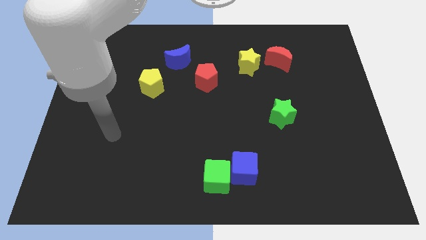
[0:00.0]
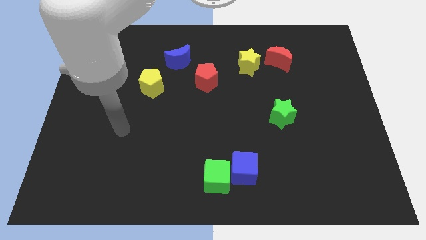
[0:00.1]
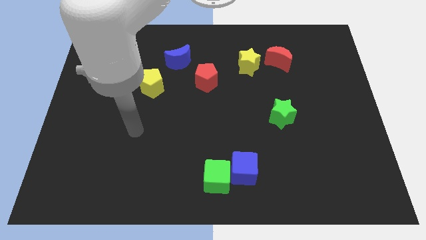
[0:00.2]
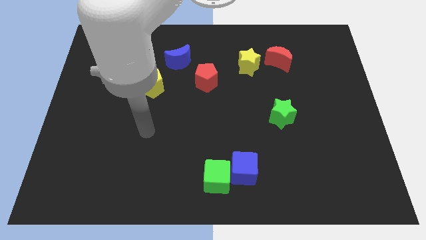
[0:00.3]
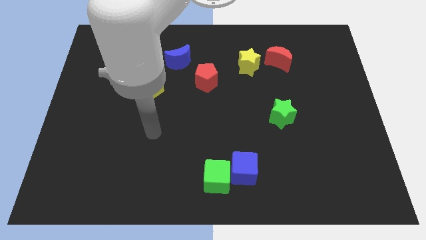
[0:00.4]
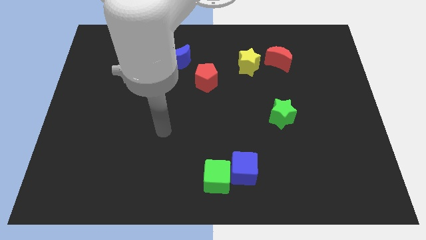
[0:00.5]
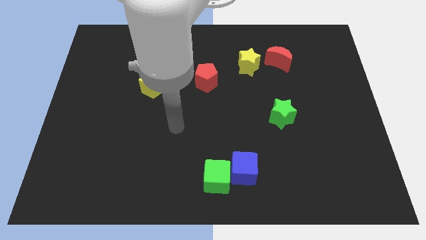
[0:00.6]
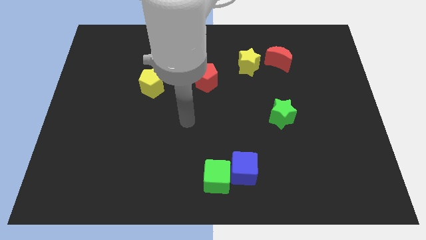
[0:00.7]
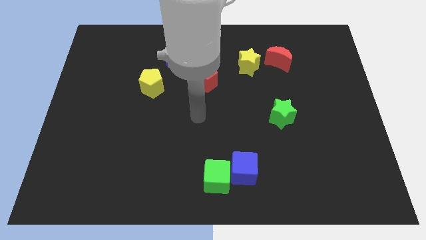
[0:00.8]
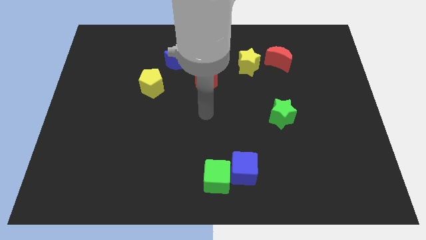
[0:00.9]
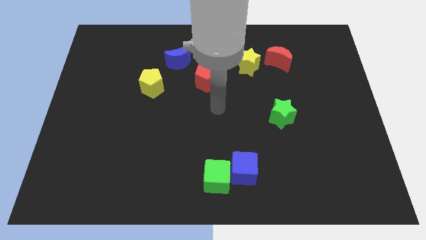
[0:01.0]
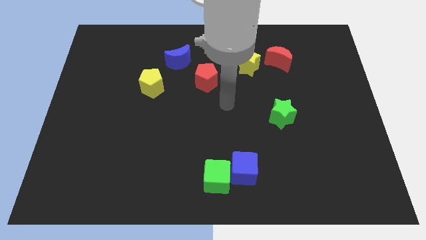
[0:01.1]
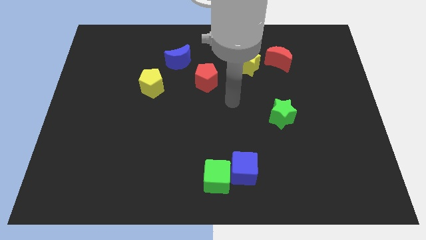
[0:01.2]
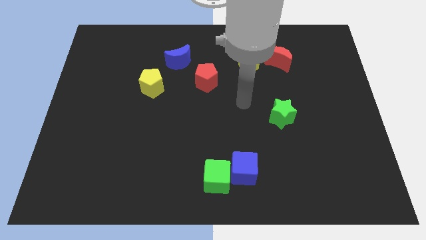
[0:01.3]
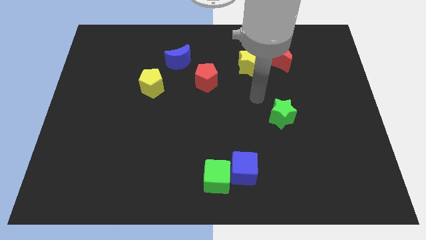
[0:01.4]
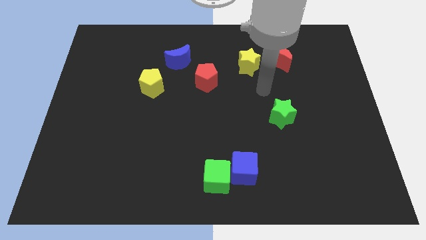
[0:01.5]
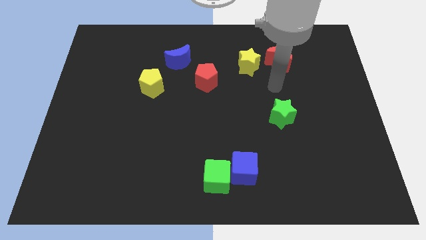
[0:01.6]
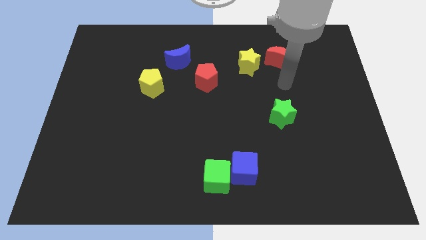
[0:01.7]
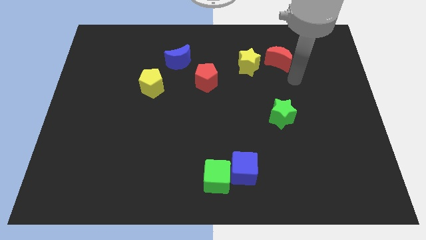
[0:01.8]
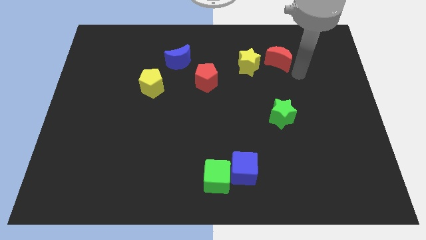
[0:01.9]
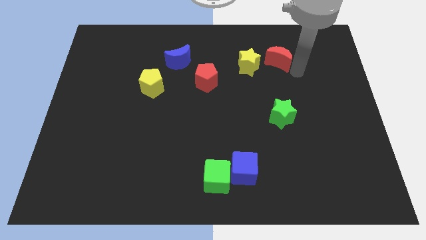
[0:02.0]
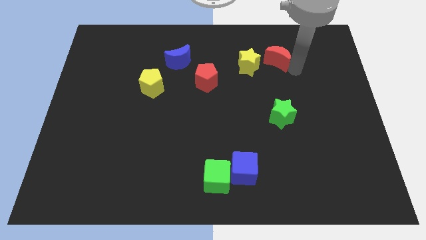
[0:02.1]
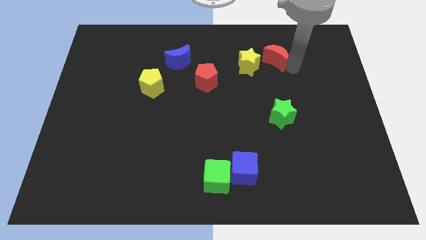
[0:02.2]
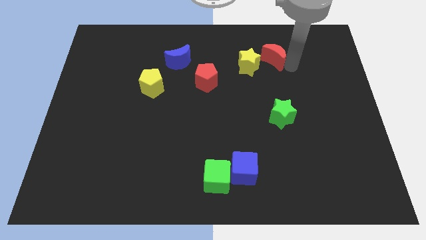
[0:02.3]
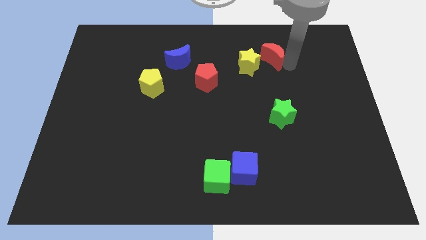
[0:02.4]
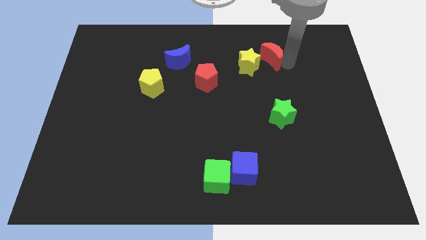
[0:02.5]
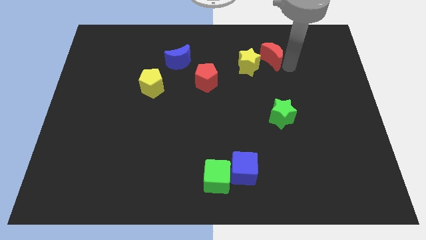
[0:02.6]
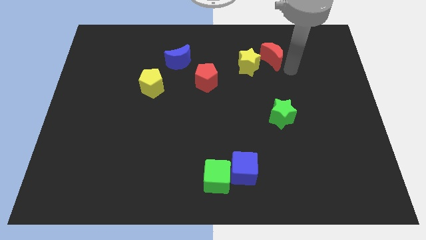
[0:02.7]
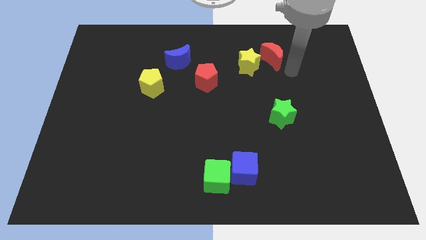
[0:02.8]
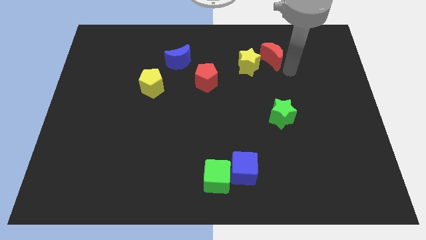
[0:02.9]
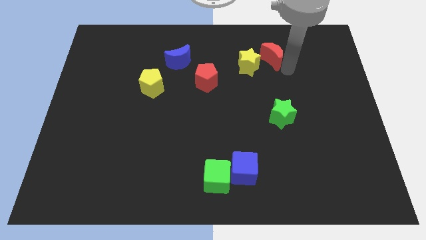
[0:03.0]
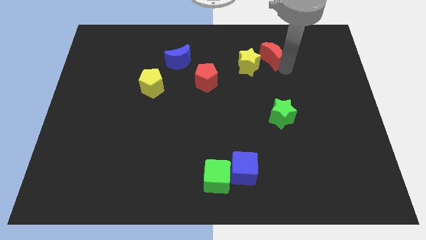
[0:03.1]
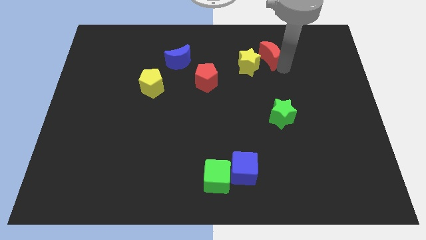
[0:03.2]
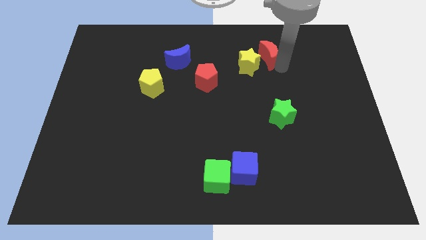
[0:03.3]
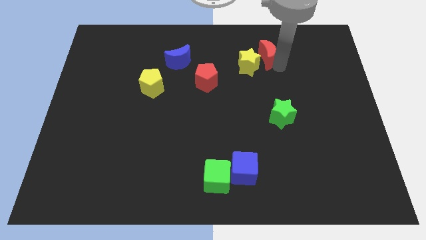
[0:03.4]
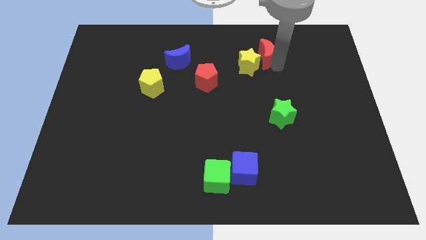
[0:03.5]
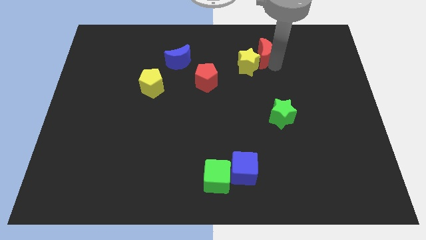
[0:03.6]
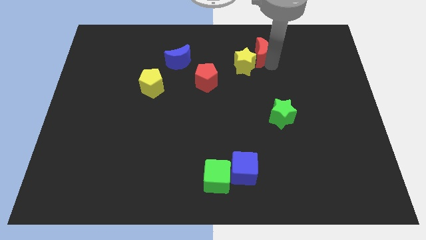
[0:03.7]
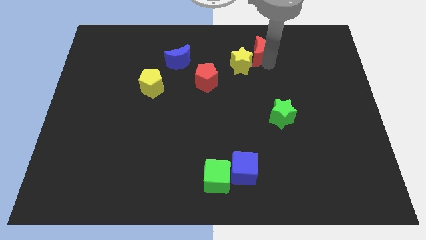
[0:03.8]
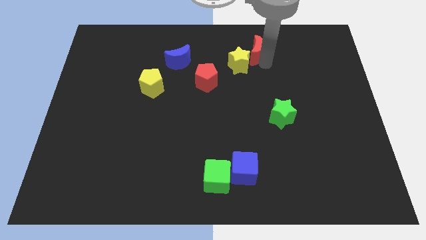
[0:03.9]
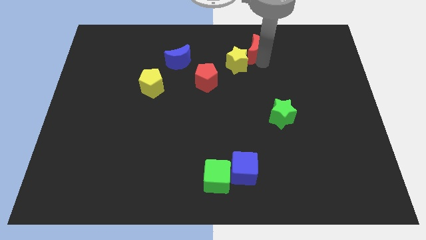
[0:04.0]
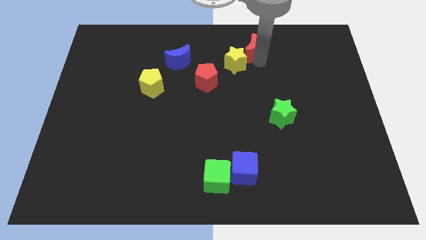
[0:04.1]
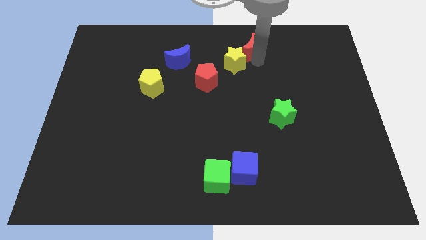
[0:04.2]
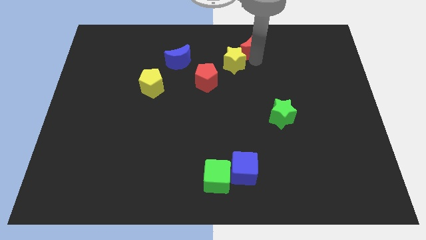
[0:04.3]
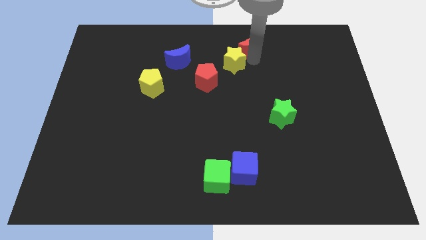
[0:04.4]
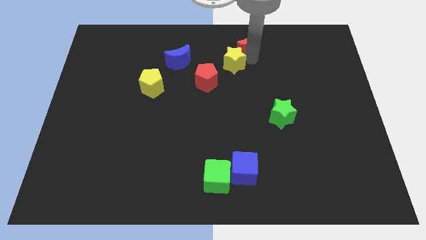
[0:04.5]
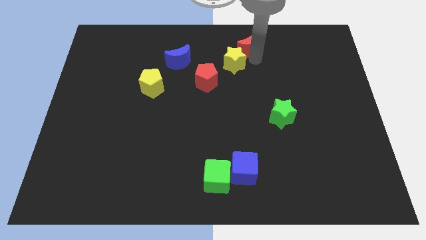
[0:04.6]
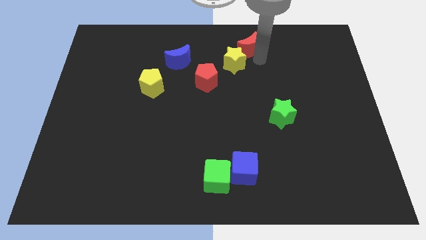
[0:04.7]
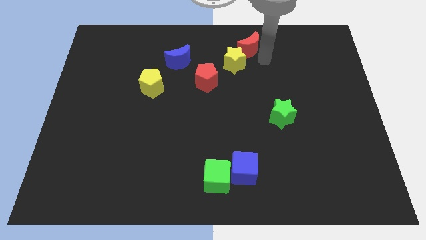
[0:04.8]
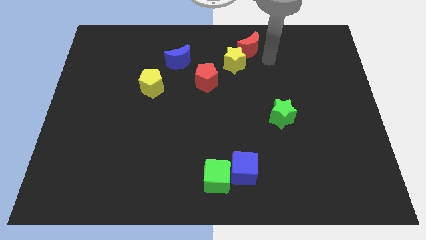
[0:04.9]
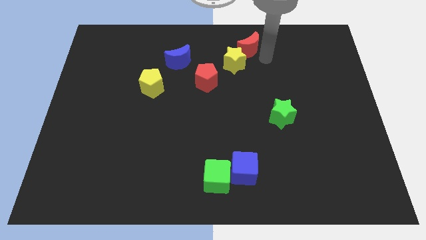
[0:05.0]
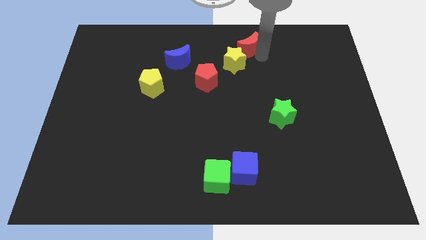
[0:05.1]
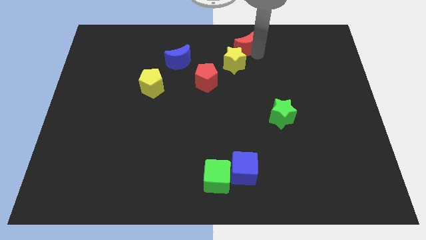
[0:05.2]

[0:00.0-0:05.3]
put the red moon to the top

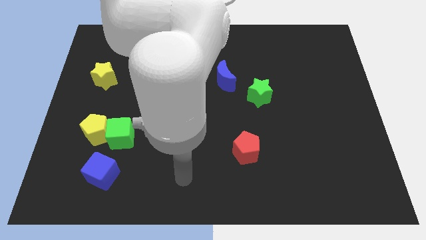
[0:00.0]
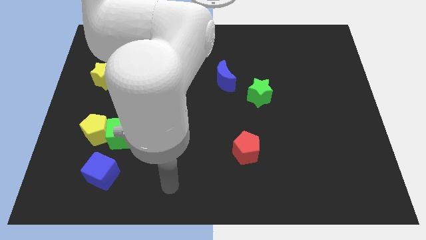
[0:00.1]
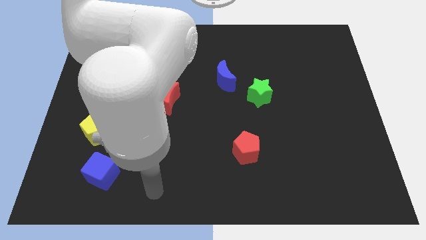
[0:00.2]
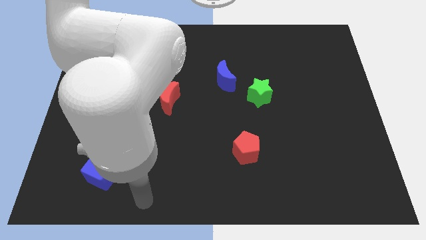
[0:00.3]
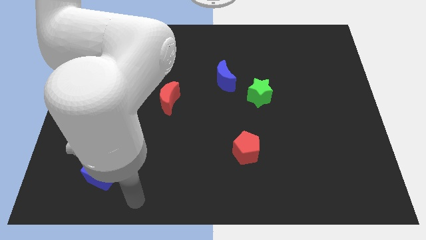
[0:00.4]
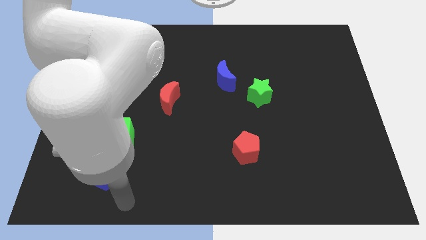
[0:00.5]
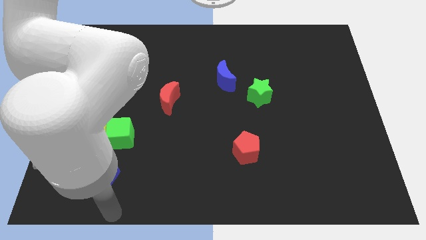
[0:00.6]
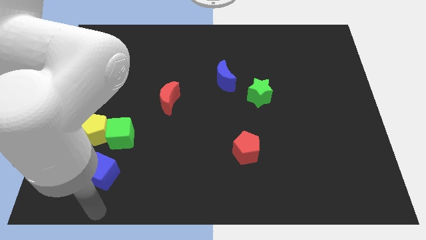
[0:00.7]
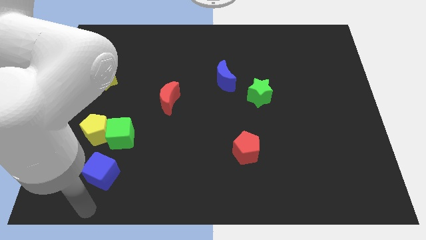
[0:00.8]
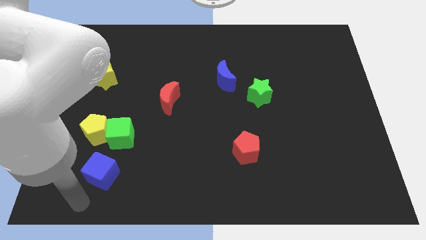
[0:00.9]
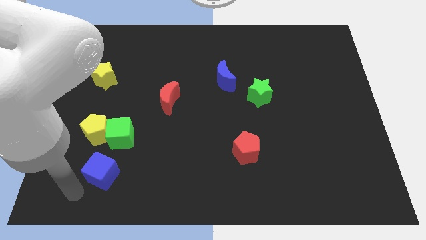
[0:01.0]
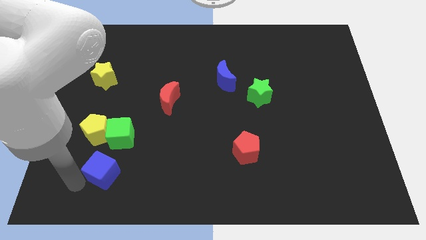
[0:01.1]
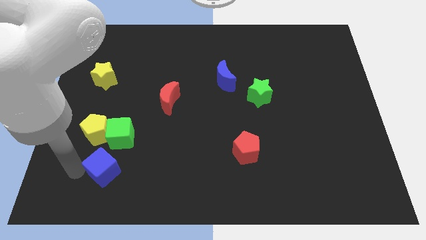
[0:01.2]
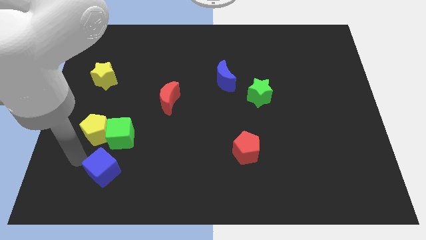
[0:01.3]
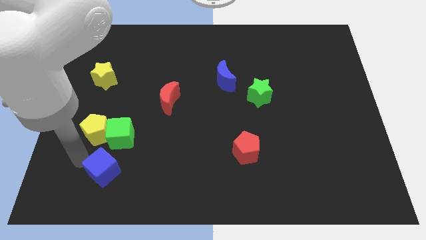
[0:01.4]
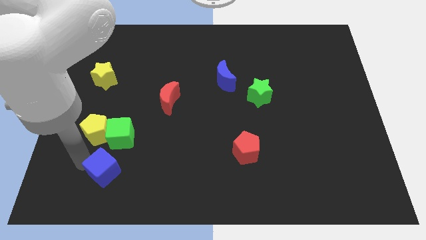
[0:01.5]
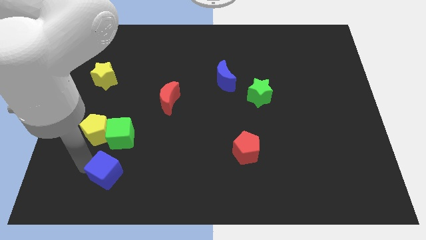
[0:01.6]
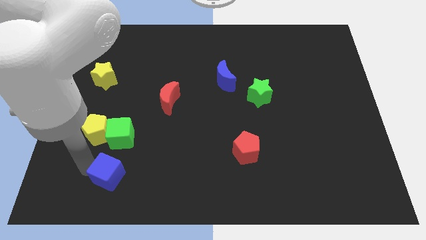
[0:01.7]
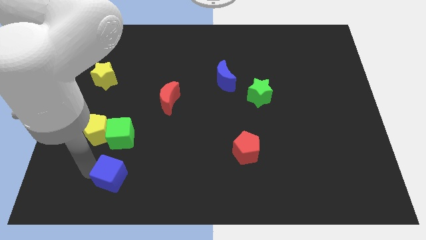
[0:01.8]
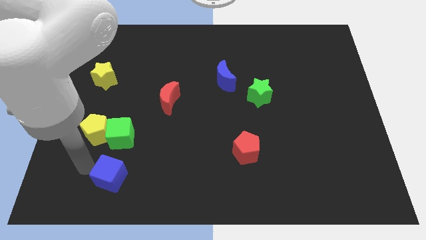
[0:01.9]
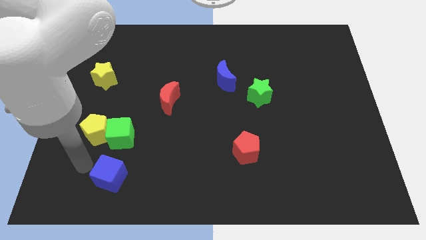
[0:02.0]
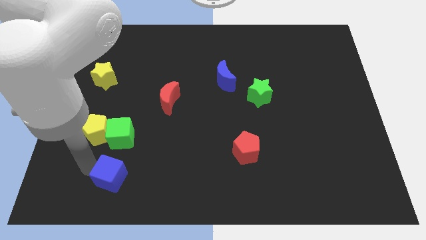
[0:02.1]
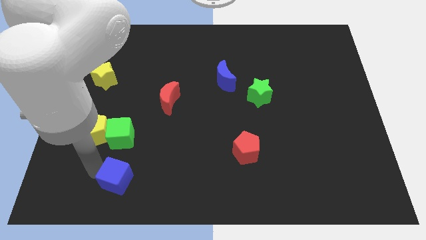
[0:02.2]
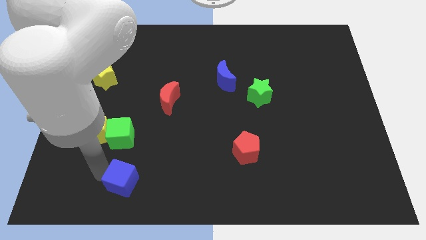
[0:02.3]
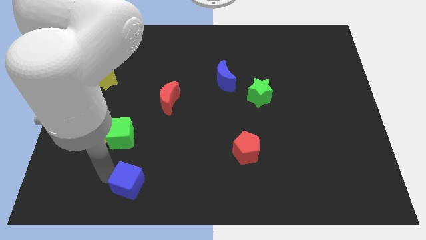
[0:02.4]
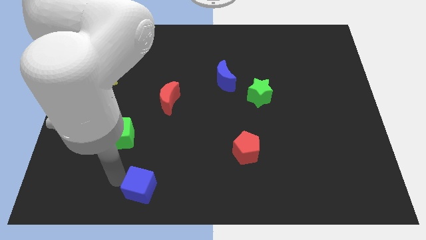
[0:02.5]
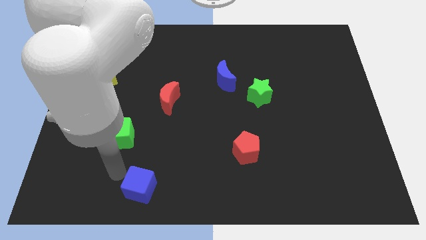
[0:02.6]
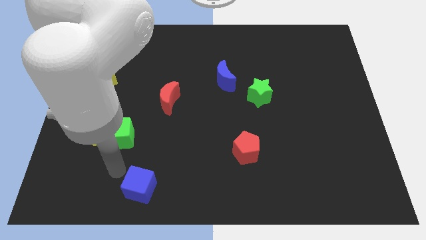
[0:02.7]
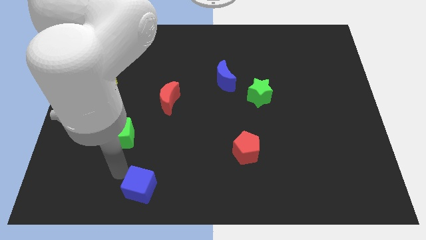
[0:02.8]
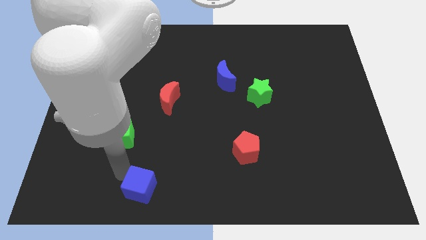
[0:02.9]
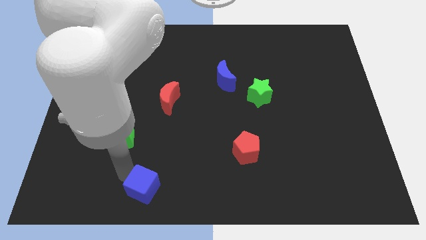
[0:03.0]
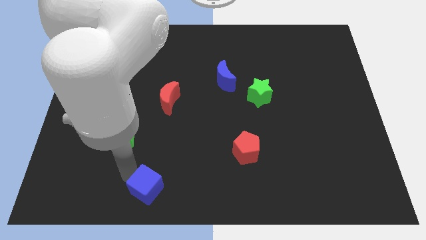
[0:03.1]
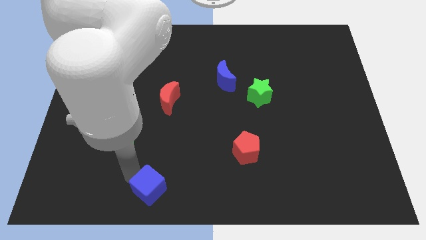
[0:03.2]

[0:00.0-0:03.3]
push the blue cube to the bottom side
